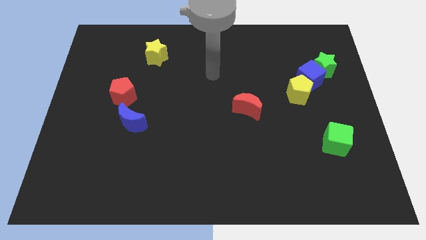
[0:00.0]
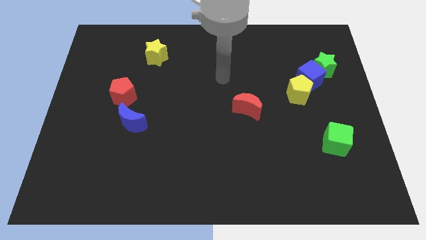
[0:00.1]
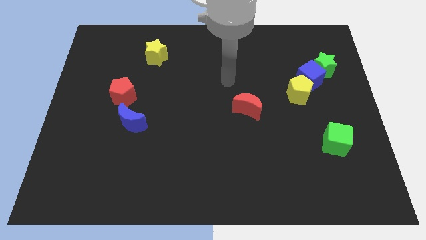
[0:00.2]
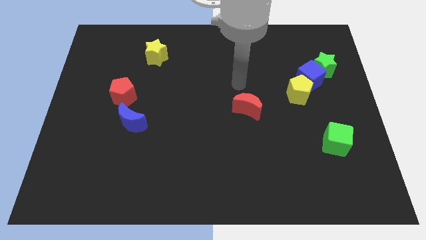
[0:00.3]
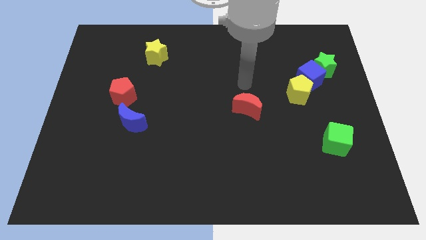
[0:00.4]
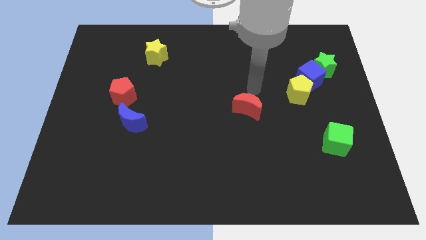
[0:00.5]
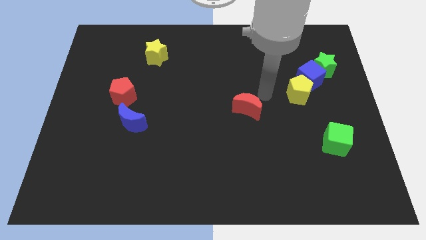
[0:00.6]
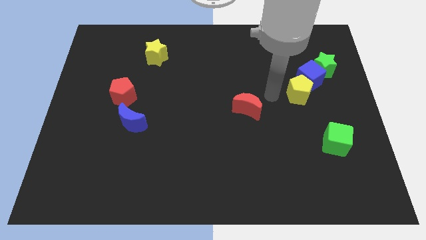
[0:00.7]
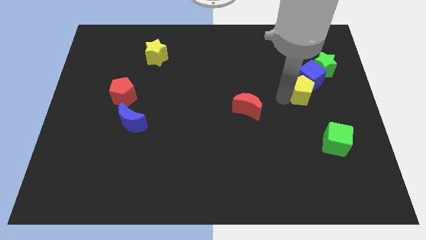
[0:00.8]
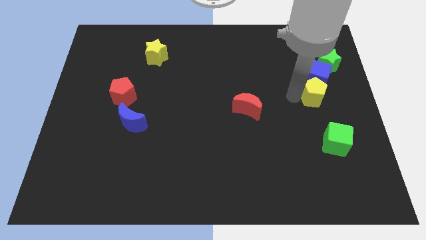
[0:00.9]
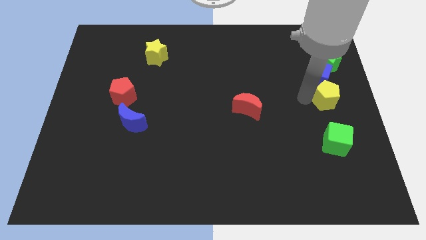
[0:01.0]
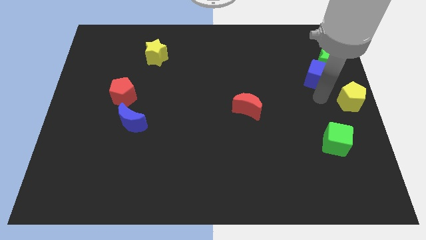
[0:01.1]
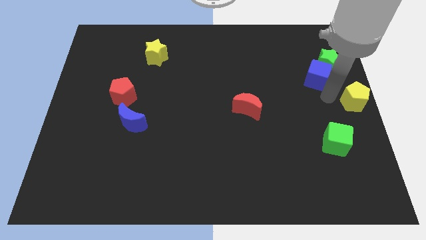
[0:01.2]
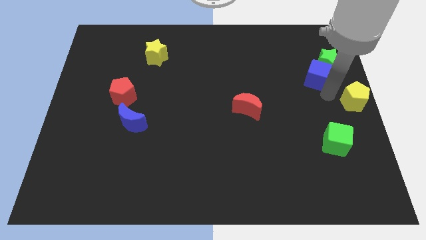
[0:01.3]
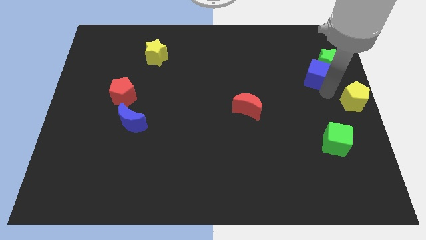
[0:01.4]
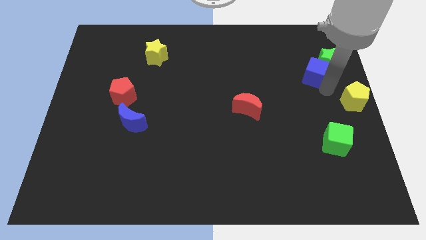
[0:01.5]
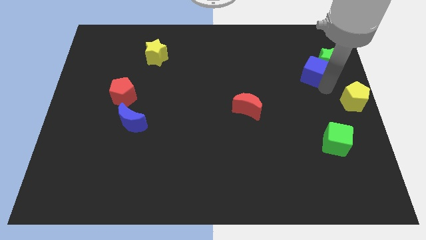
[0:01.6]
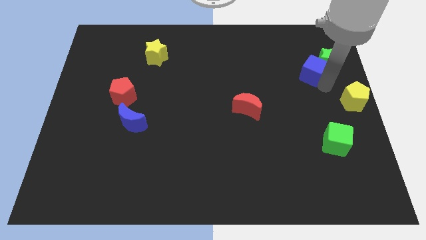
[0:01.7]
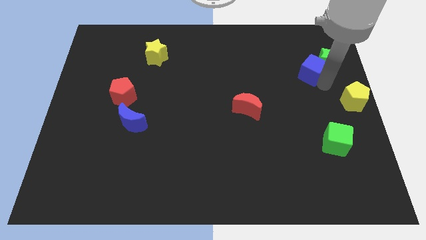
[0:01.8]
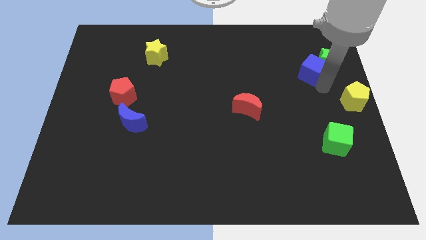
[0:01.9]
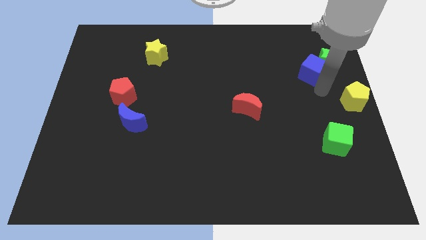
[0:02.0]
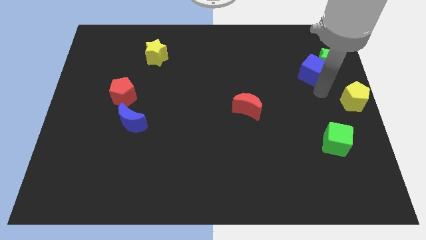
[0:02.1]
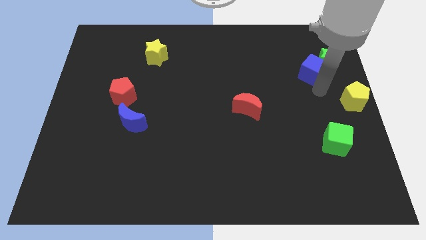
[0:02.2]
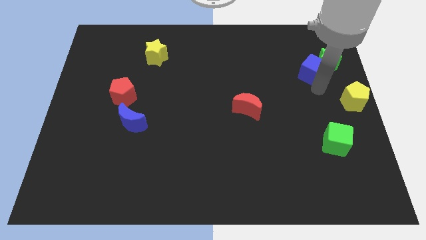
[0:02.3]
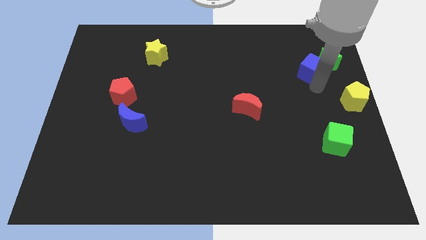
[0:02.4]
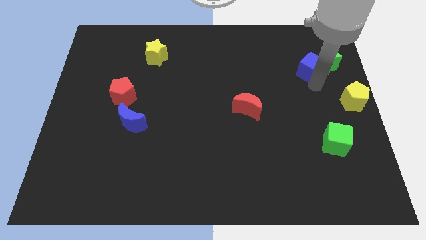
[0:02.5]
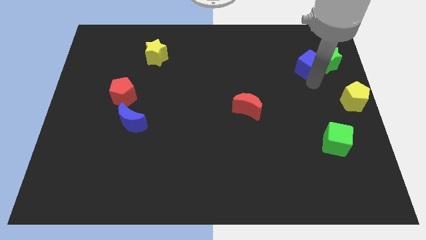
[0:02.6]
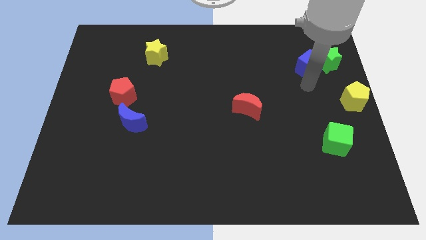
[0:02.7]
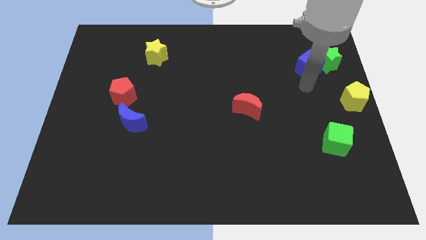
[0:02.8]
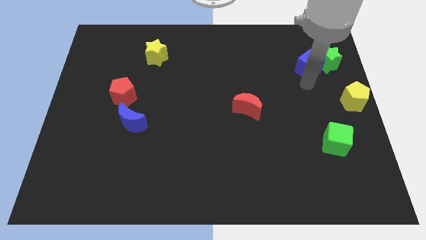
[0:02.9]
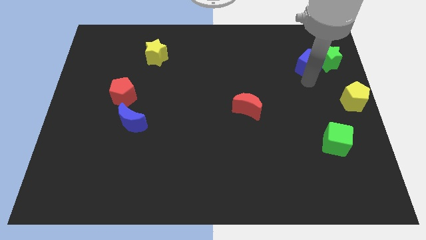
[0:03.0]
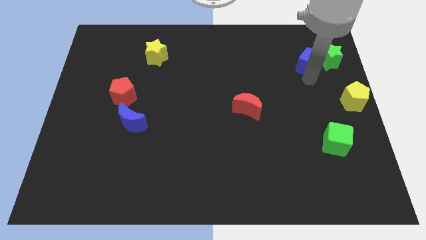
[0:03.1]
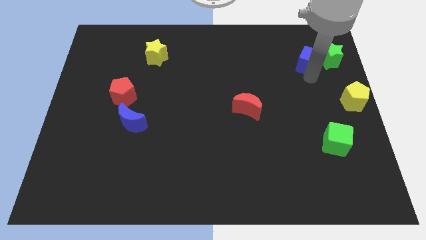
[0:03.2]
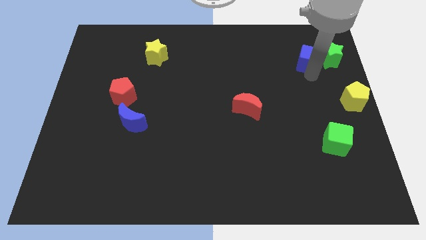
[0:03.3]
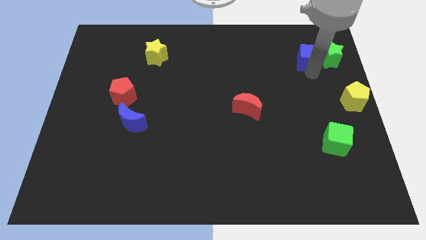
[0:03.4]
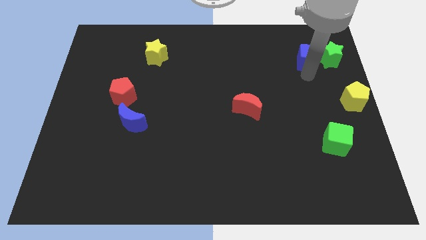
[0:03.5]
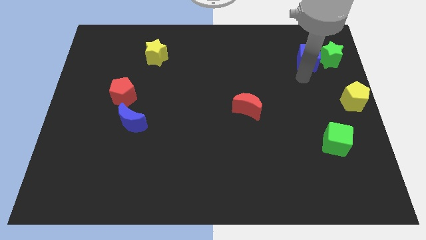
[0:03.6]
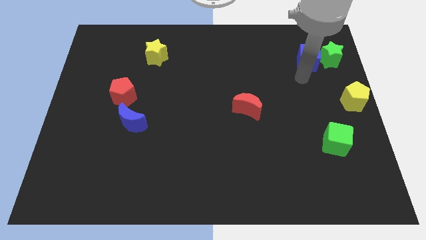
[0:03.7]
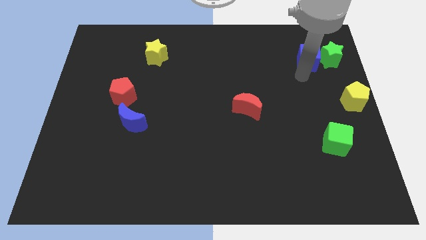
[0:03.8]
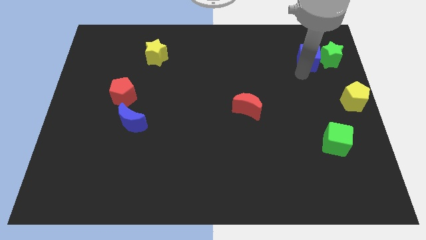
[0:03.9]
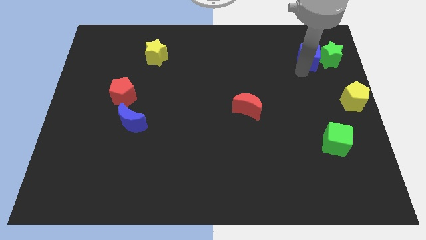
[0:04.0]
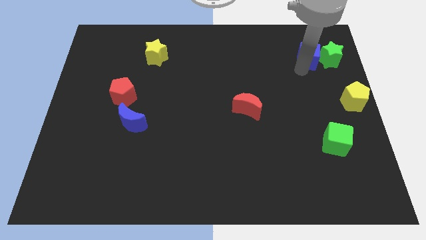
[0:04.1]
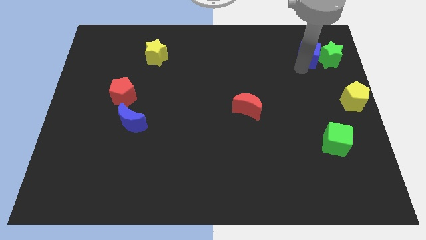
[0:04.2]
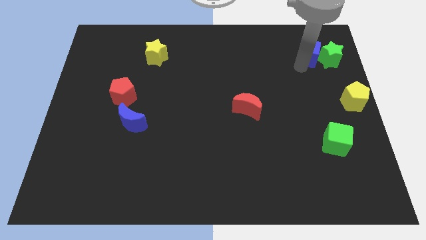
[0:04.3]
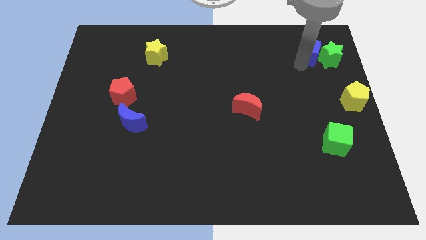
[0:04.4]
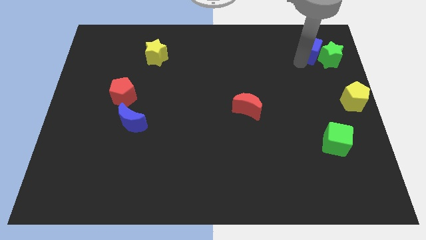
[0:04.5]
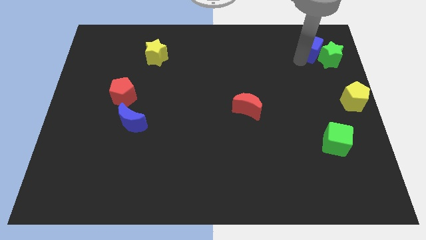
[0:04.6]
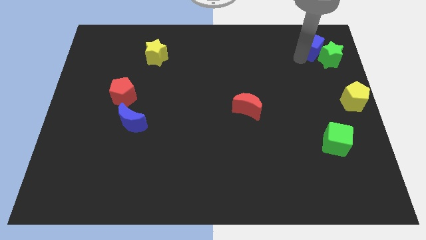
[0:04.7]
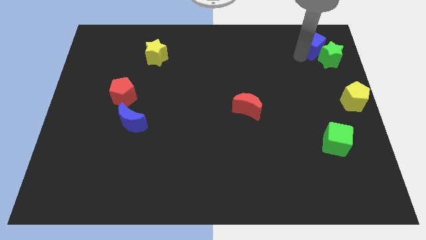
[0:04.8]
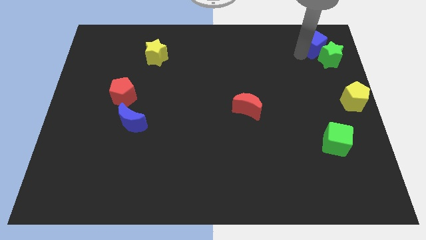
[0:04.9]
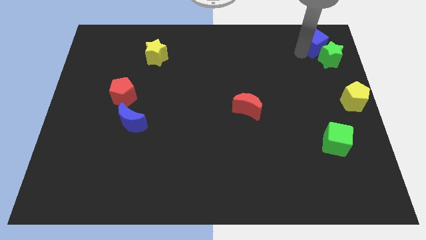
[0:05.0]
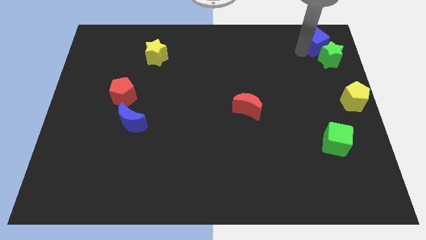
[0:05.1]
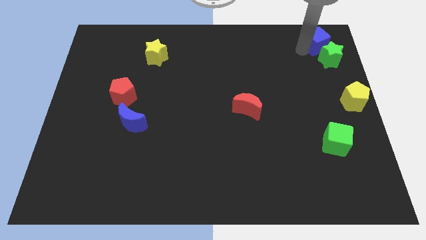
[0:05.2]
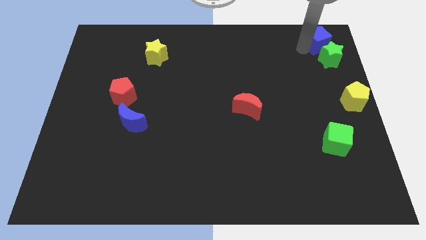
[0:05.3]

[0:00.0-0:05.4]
push the blue cube to the top right

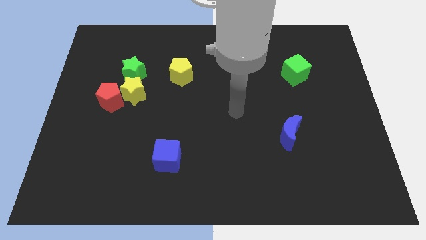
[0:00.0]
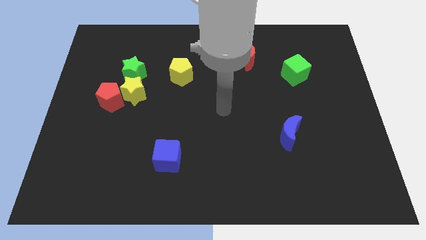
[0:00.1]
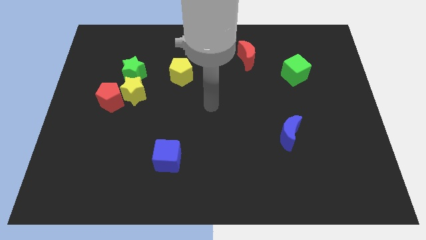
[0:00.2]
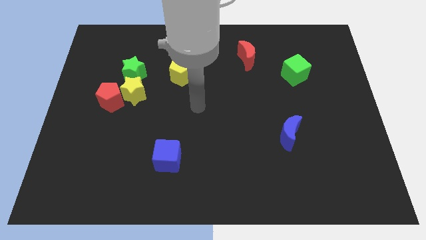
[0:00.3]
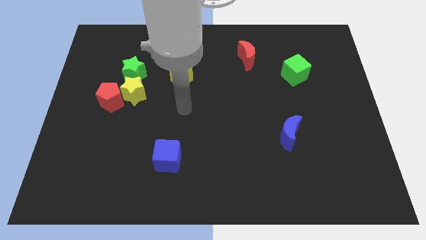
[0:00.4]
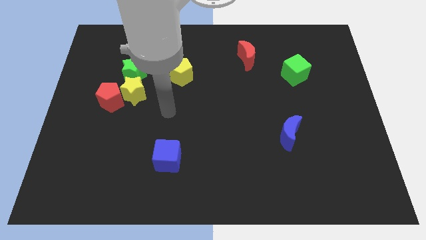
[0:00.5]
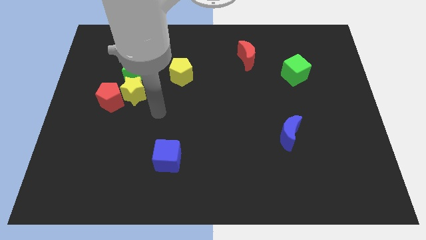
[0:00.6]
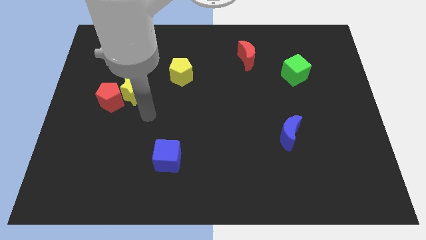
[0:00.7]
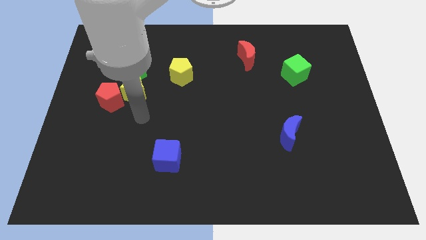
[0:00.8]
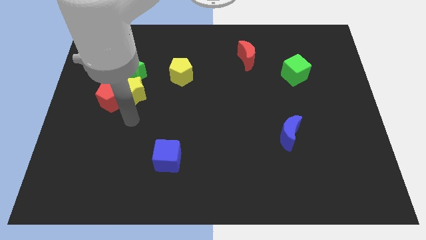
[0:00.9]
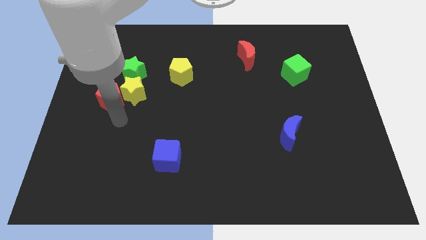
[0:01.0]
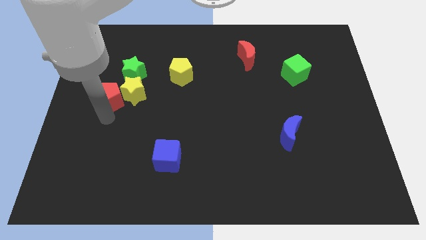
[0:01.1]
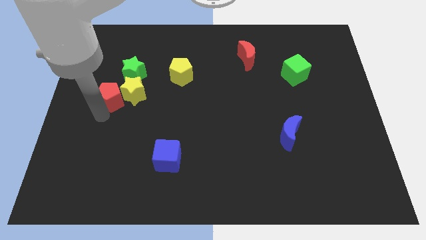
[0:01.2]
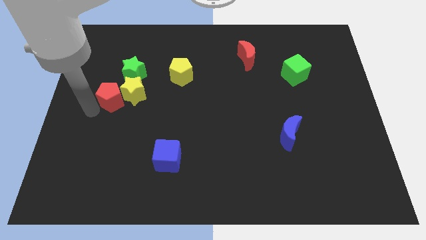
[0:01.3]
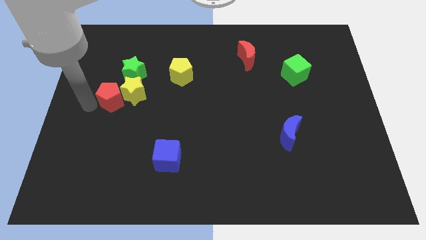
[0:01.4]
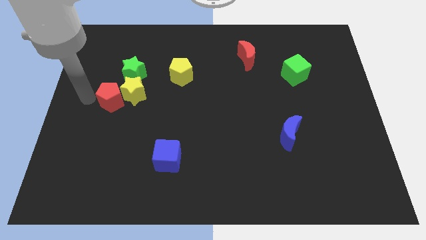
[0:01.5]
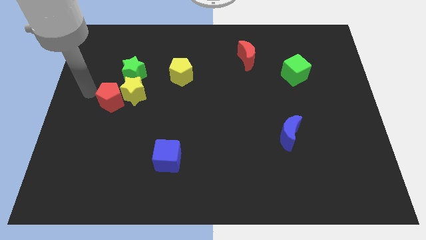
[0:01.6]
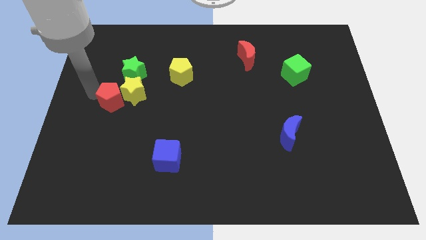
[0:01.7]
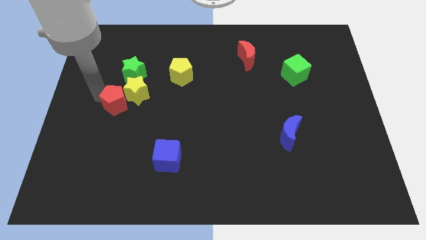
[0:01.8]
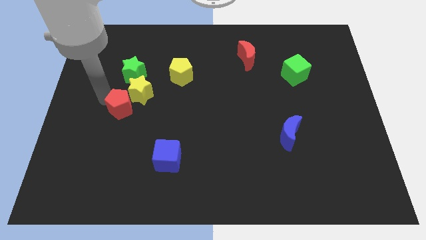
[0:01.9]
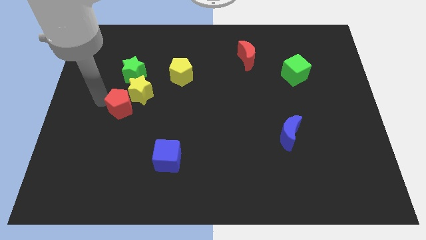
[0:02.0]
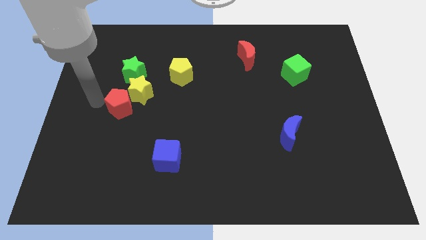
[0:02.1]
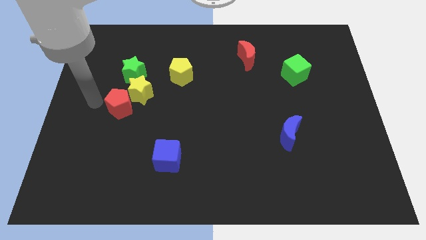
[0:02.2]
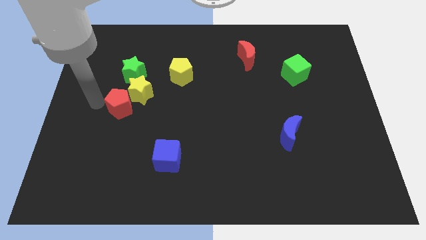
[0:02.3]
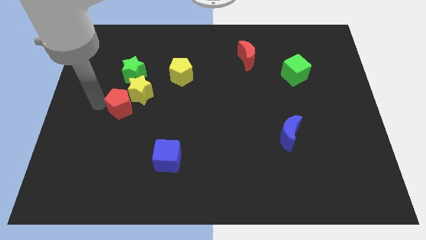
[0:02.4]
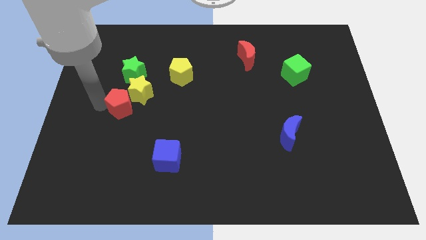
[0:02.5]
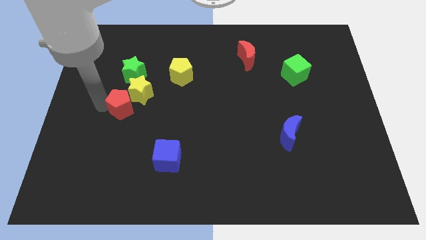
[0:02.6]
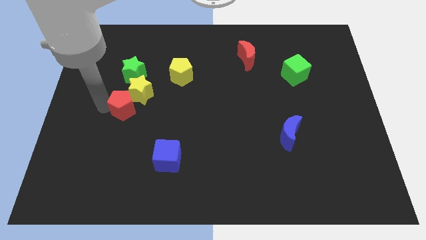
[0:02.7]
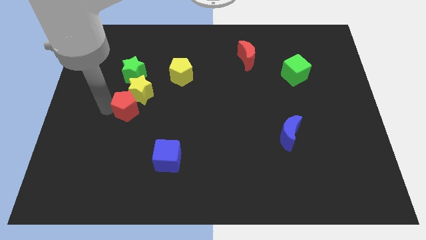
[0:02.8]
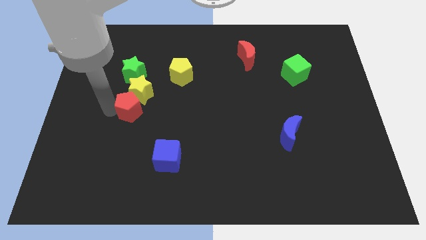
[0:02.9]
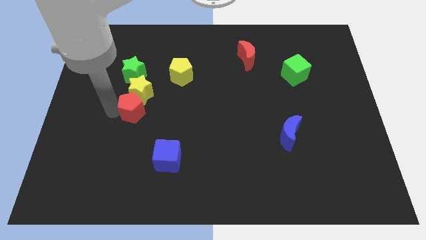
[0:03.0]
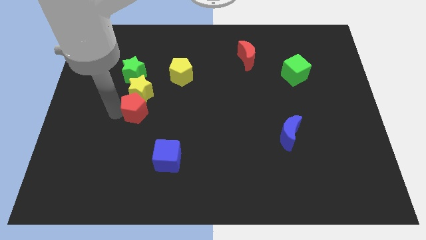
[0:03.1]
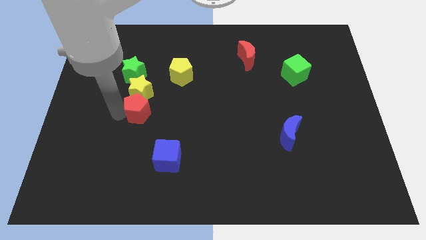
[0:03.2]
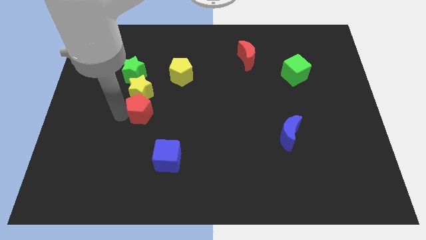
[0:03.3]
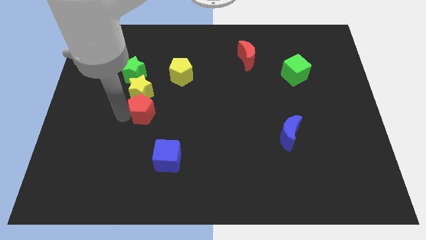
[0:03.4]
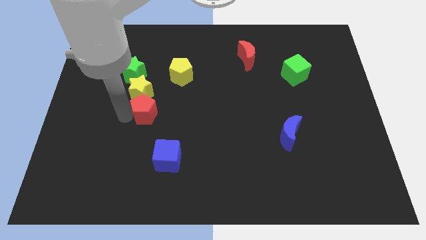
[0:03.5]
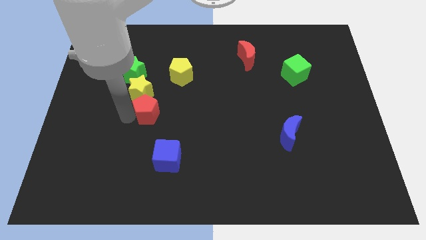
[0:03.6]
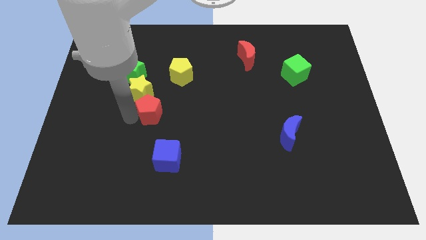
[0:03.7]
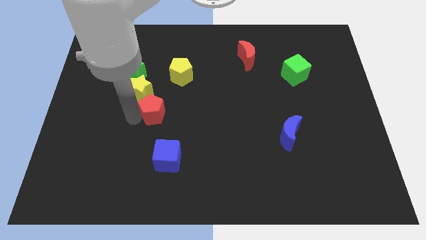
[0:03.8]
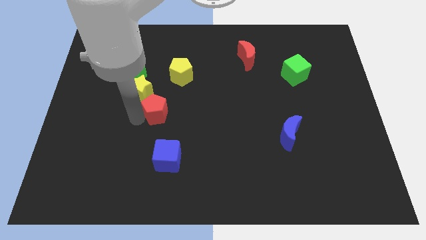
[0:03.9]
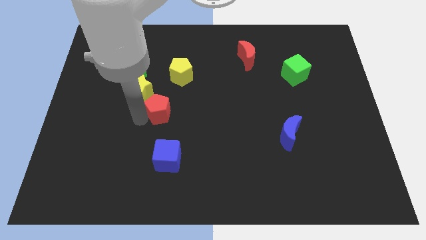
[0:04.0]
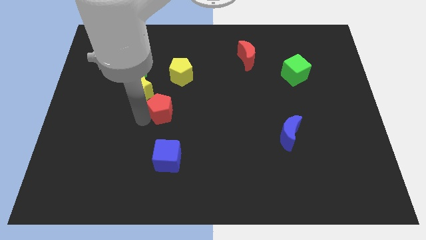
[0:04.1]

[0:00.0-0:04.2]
slide the red pentagon to the middle of the board
